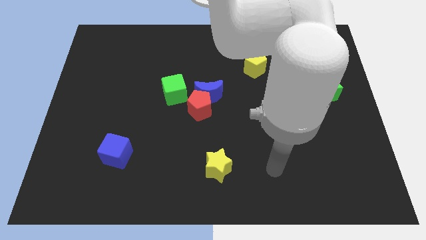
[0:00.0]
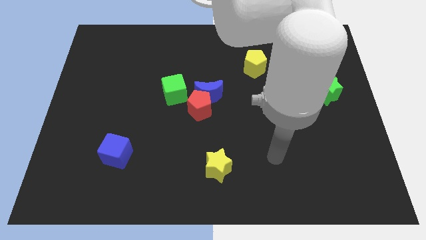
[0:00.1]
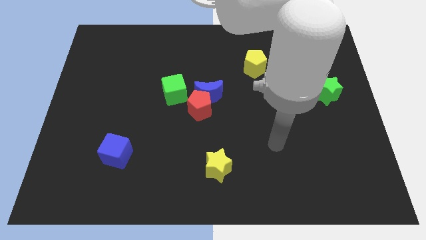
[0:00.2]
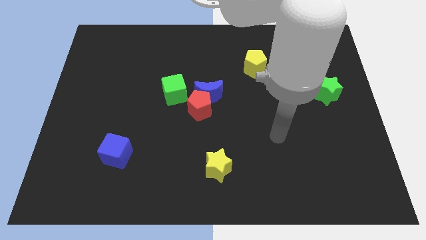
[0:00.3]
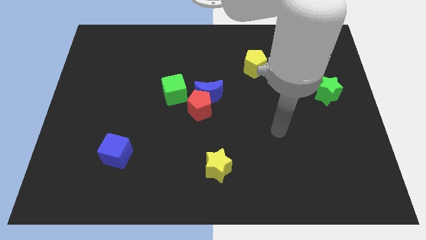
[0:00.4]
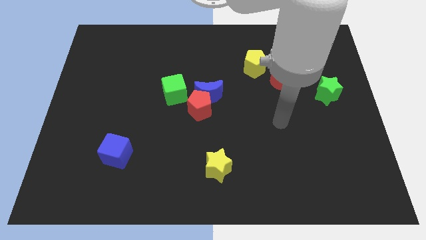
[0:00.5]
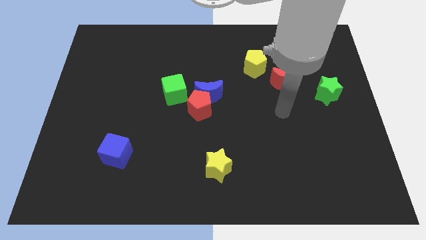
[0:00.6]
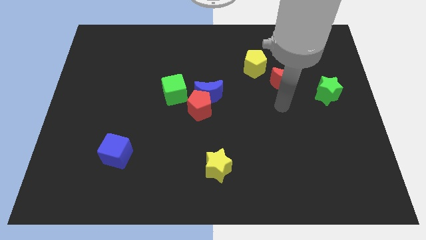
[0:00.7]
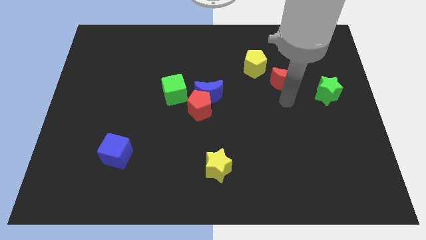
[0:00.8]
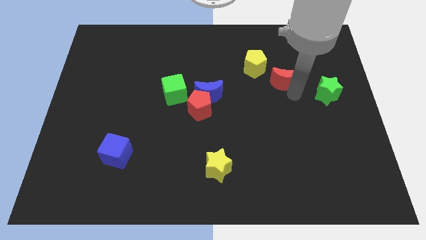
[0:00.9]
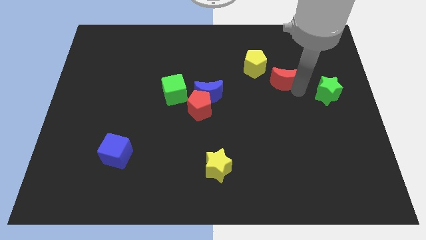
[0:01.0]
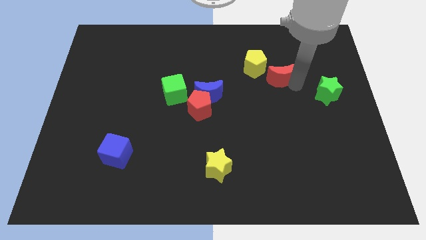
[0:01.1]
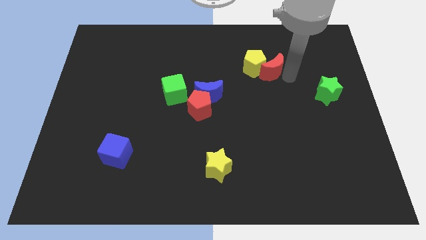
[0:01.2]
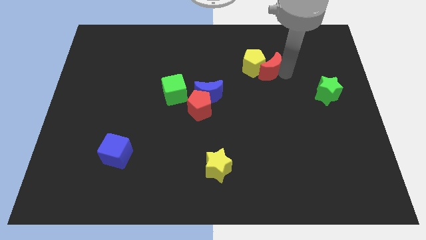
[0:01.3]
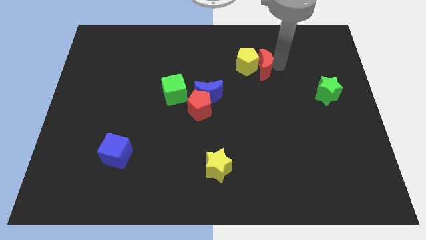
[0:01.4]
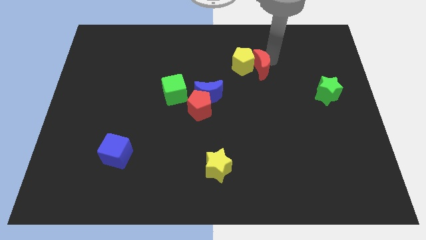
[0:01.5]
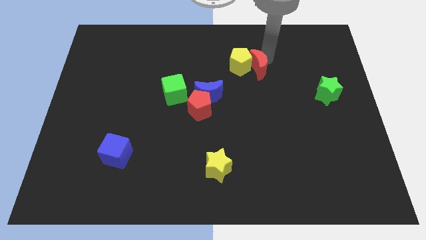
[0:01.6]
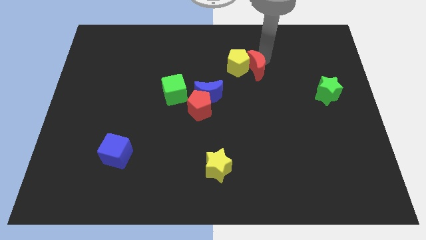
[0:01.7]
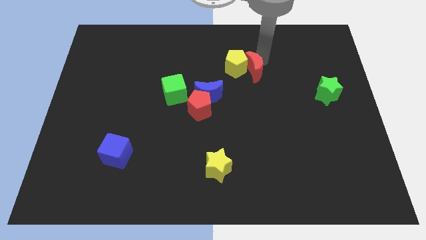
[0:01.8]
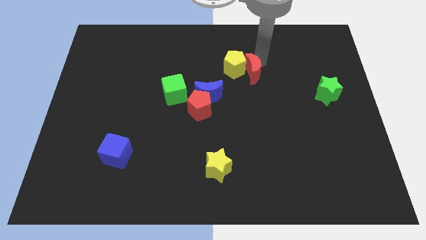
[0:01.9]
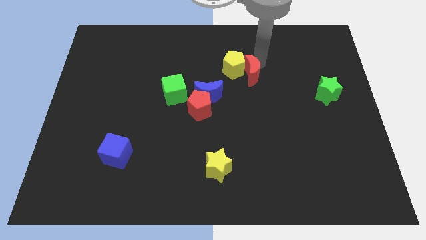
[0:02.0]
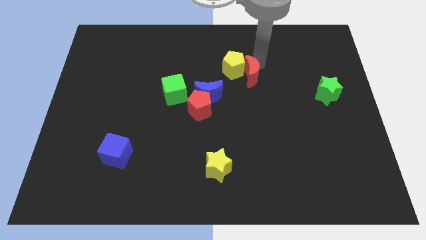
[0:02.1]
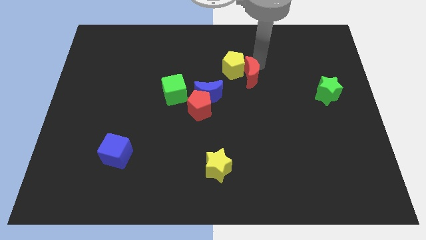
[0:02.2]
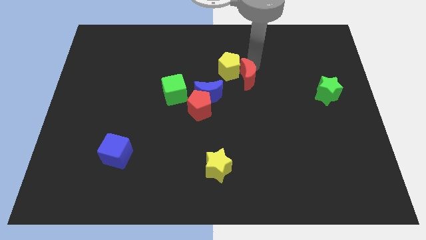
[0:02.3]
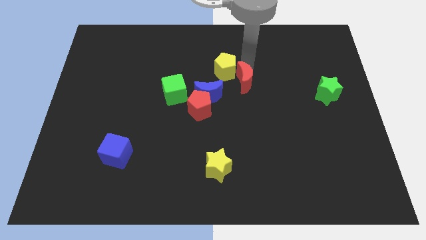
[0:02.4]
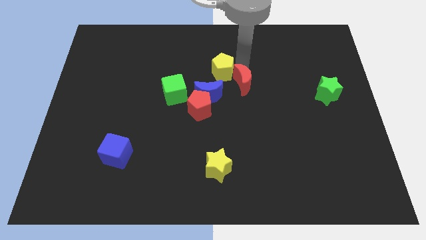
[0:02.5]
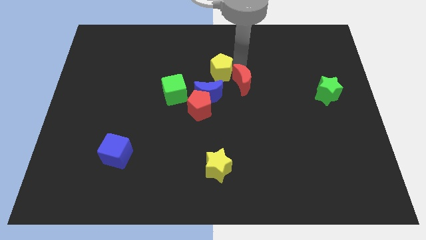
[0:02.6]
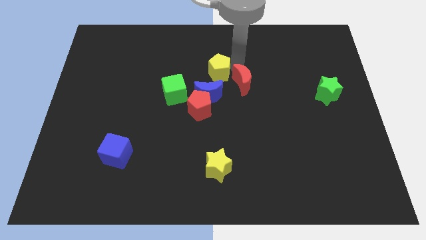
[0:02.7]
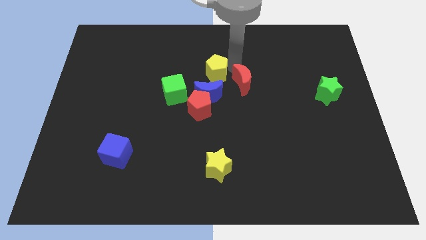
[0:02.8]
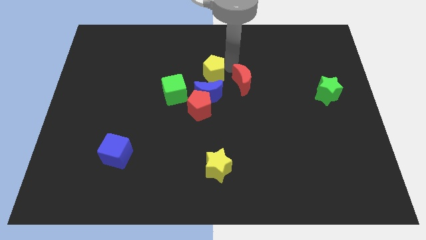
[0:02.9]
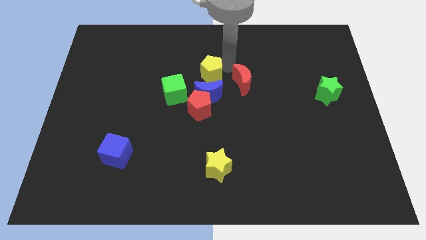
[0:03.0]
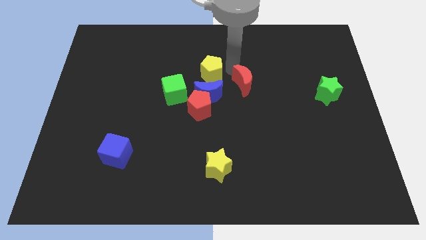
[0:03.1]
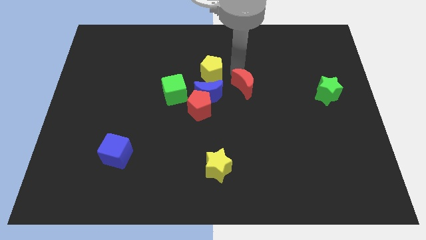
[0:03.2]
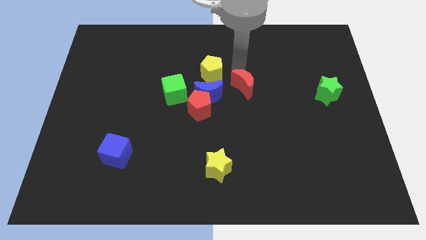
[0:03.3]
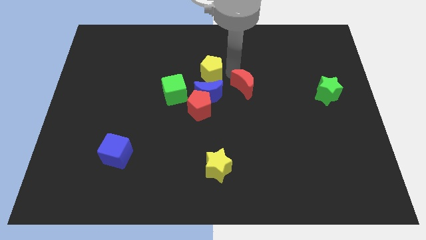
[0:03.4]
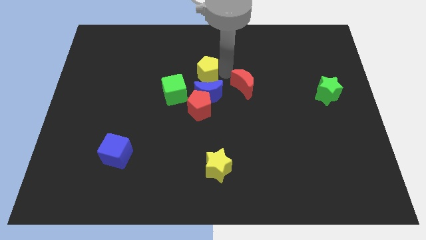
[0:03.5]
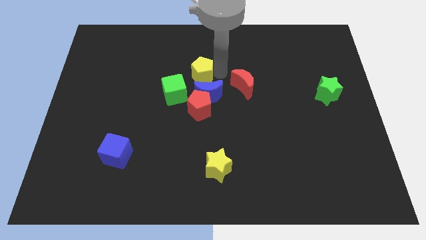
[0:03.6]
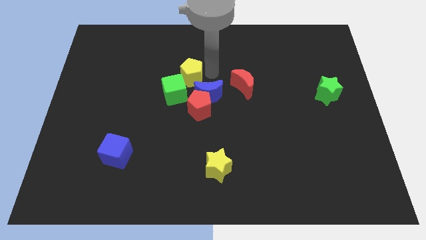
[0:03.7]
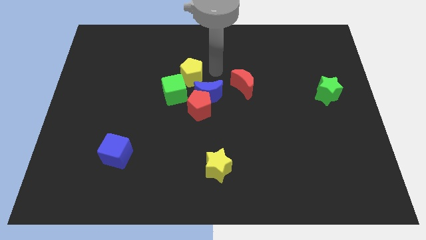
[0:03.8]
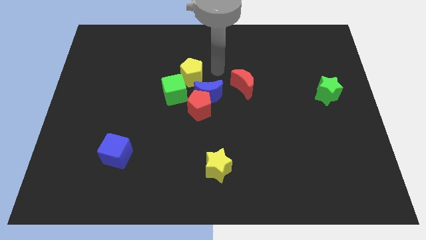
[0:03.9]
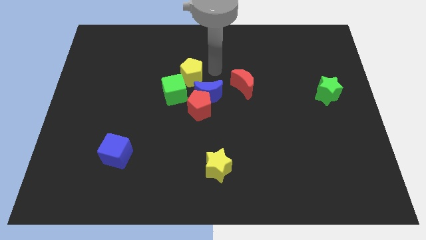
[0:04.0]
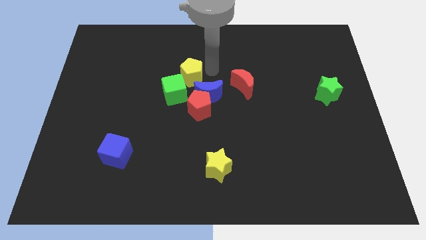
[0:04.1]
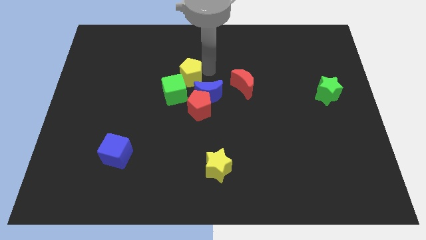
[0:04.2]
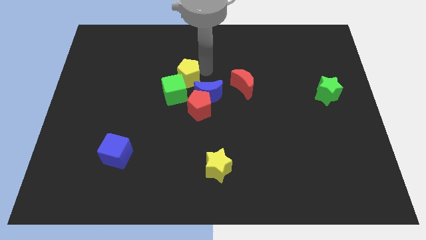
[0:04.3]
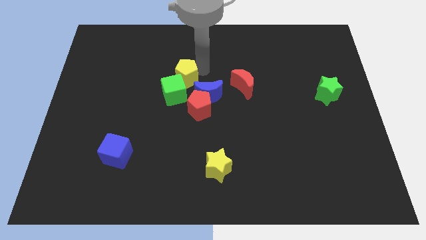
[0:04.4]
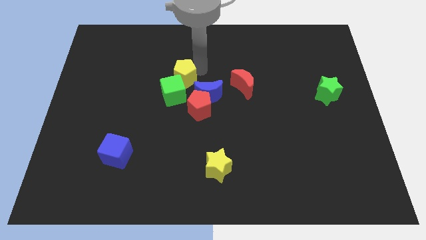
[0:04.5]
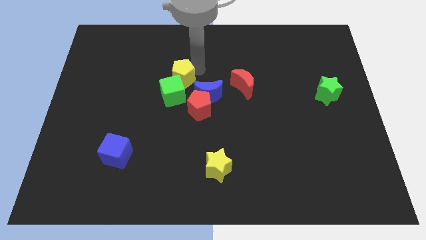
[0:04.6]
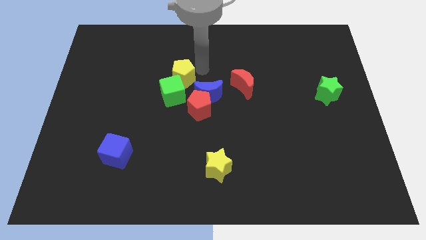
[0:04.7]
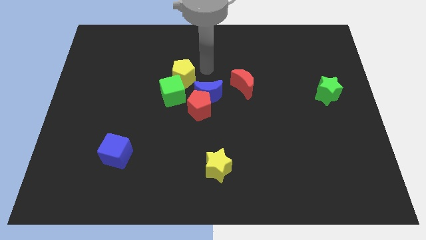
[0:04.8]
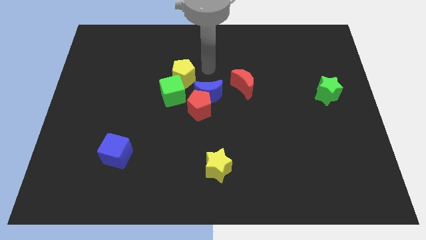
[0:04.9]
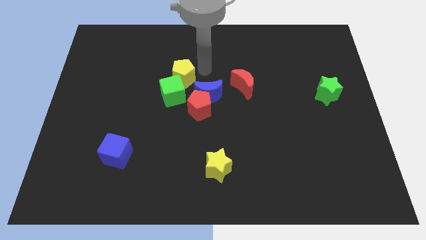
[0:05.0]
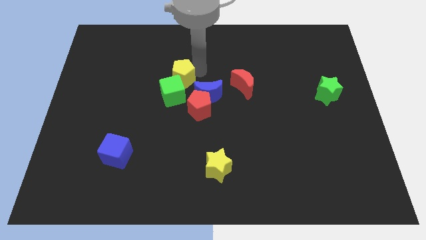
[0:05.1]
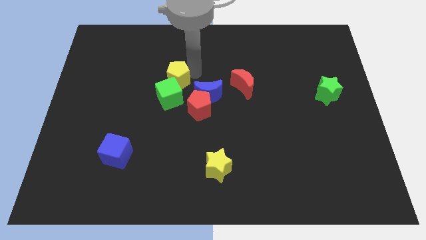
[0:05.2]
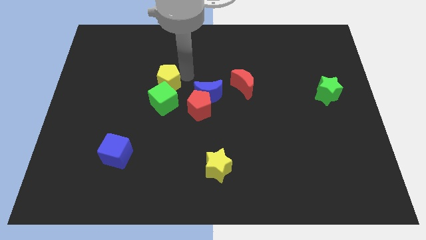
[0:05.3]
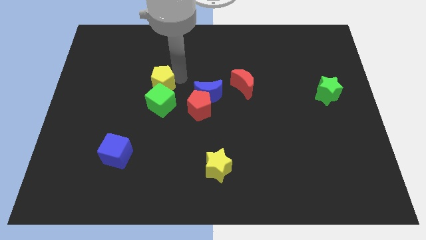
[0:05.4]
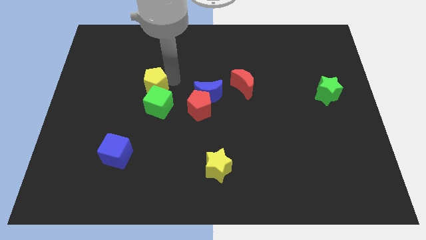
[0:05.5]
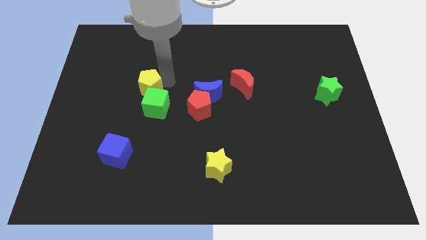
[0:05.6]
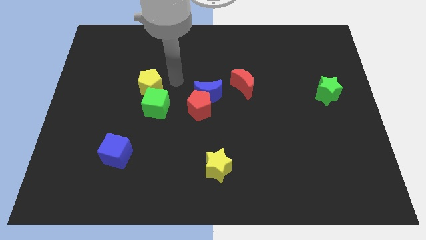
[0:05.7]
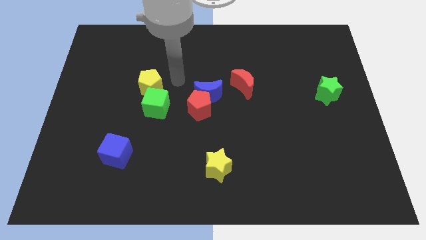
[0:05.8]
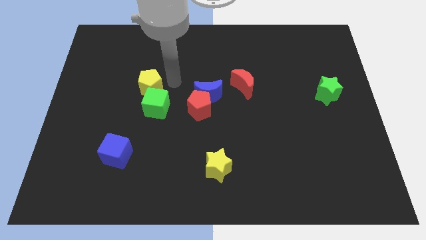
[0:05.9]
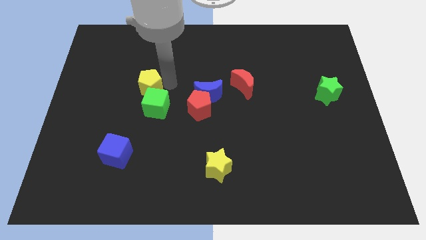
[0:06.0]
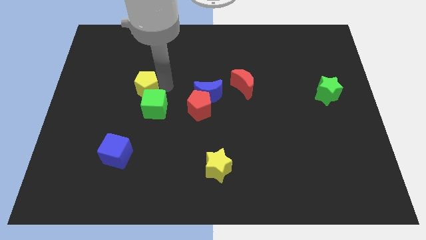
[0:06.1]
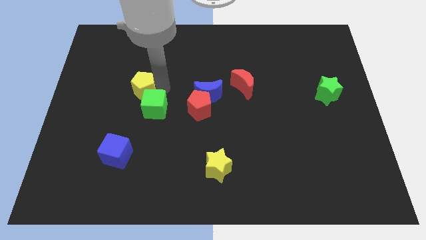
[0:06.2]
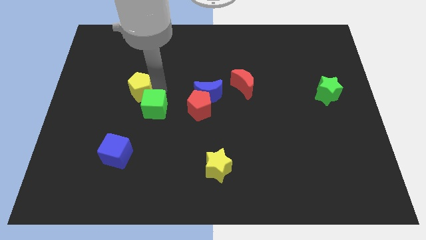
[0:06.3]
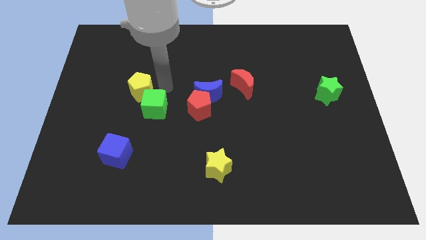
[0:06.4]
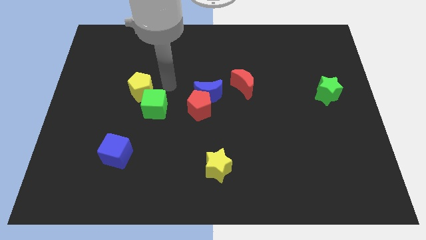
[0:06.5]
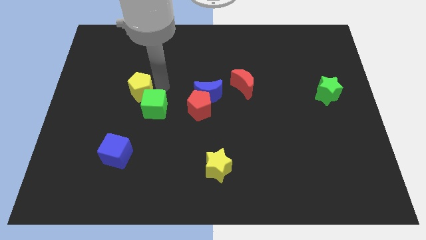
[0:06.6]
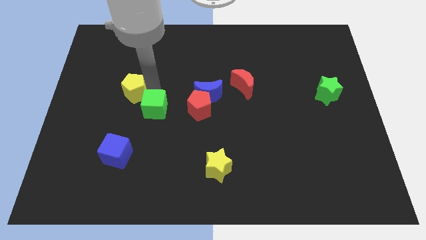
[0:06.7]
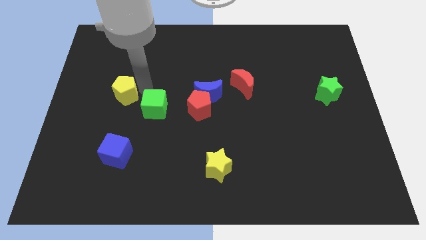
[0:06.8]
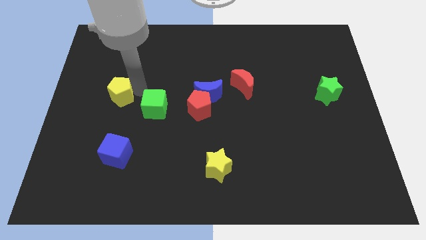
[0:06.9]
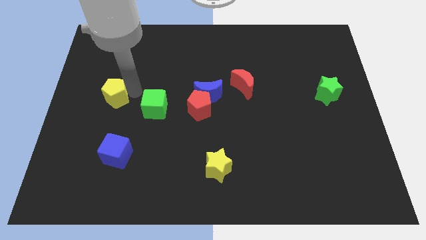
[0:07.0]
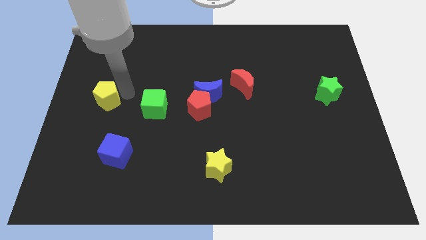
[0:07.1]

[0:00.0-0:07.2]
put the yellow pentagon to the center left
